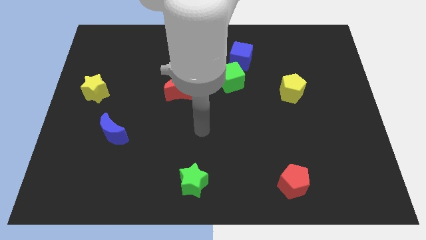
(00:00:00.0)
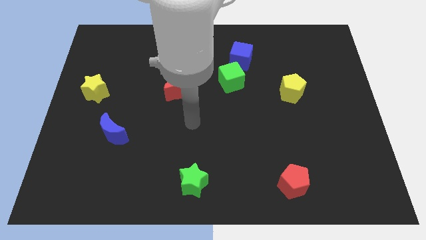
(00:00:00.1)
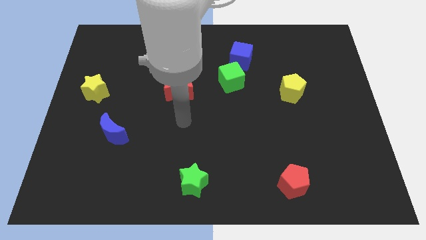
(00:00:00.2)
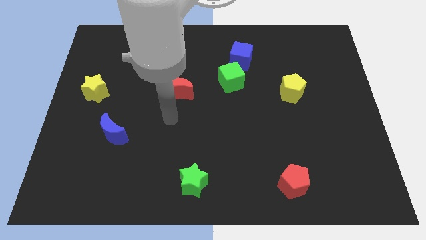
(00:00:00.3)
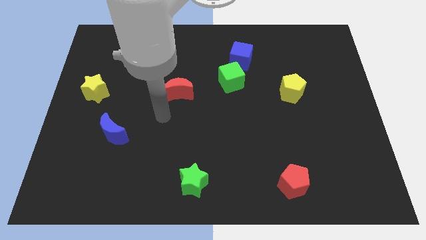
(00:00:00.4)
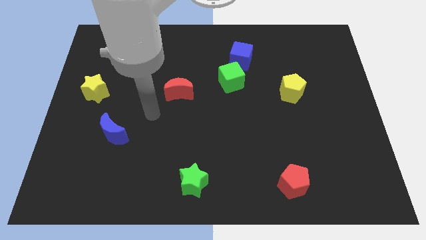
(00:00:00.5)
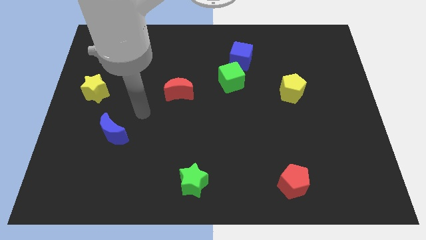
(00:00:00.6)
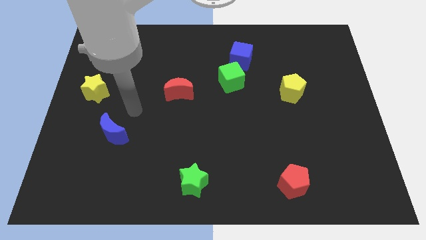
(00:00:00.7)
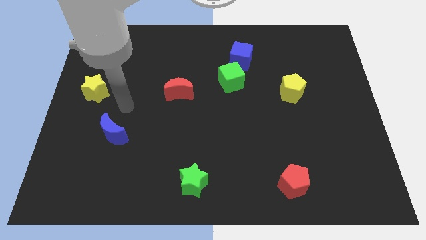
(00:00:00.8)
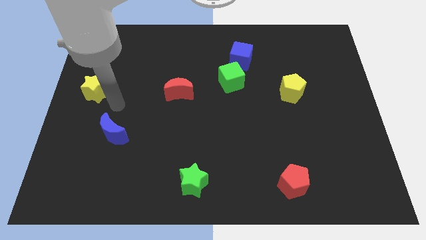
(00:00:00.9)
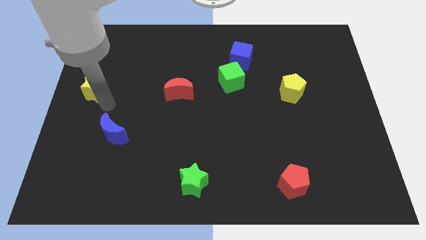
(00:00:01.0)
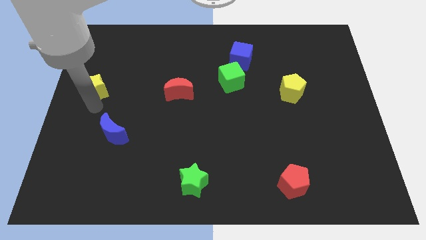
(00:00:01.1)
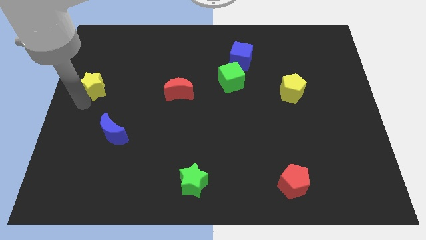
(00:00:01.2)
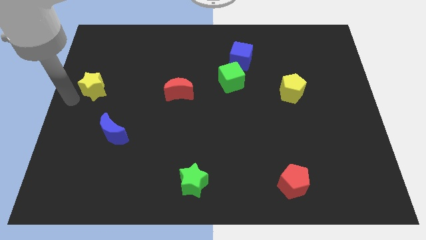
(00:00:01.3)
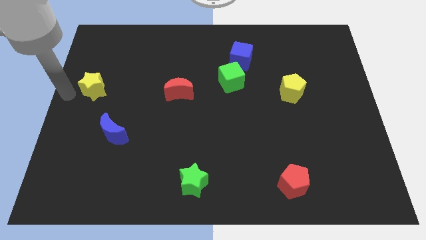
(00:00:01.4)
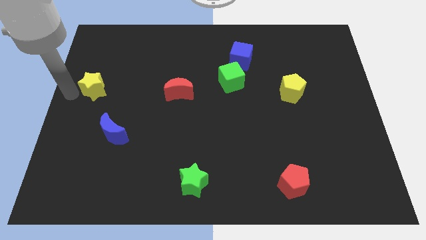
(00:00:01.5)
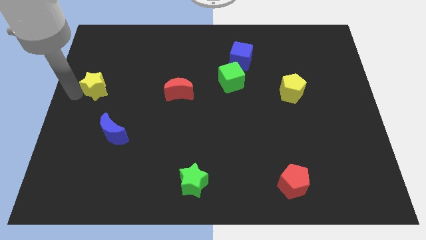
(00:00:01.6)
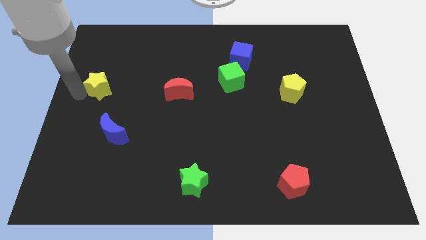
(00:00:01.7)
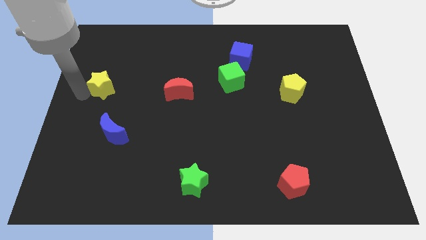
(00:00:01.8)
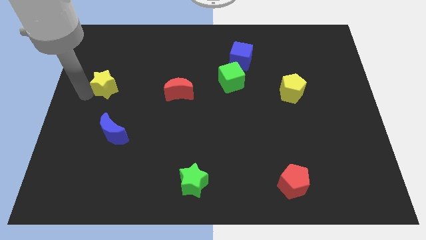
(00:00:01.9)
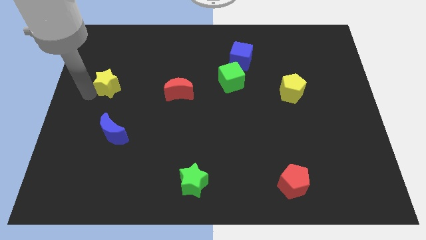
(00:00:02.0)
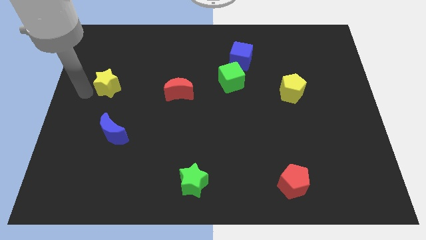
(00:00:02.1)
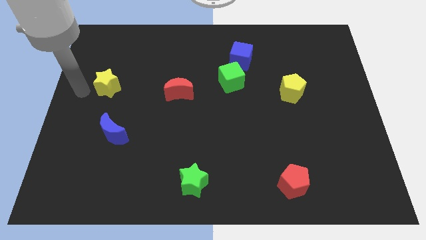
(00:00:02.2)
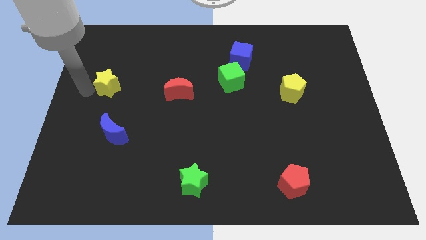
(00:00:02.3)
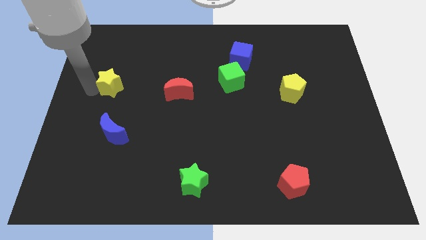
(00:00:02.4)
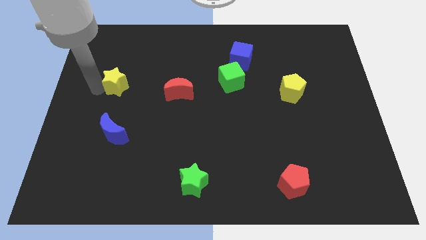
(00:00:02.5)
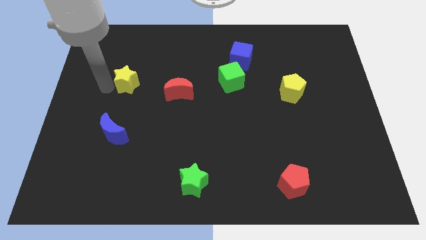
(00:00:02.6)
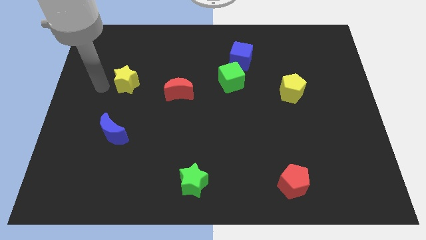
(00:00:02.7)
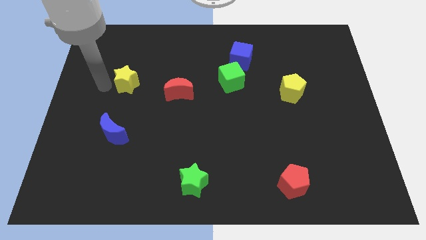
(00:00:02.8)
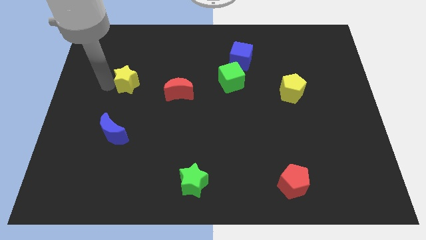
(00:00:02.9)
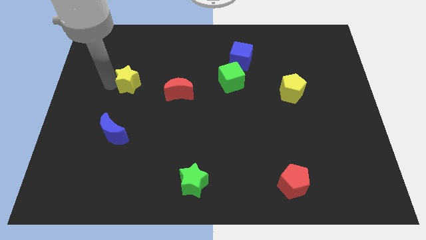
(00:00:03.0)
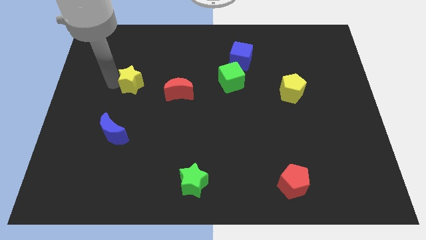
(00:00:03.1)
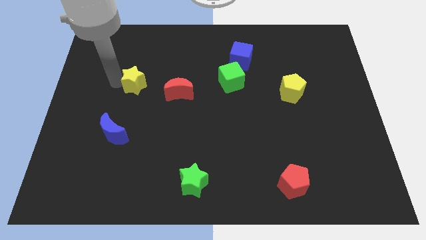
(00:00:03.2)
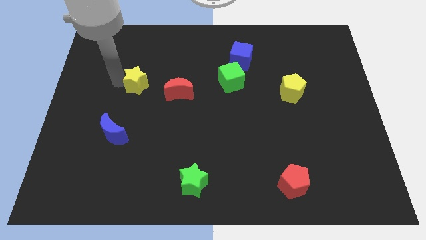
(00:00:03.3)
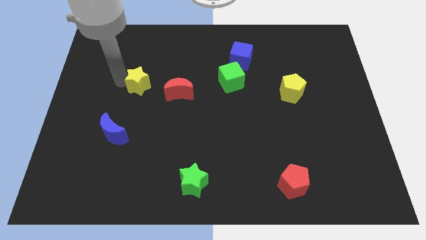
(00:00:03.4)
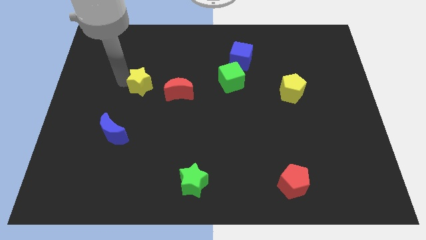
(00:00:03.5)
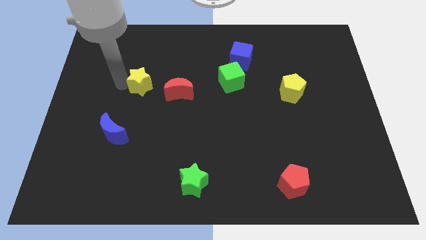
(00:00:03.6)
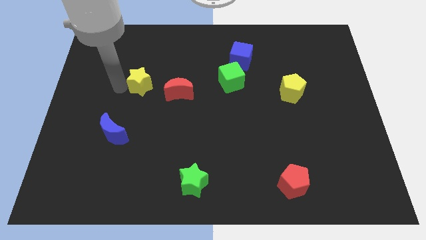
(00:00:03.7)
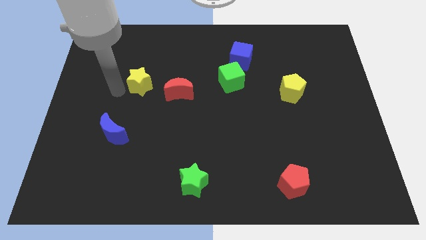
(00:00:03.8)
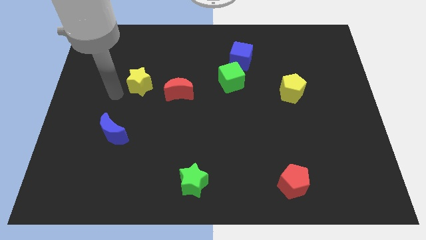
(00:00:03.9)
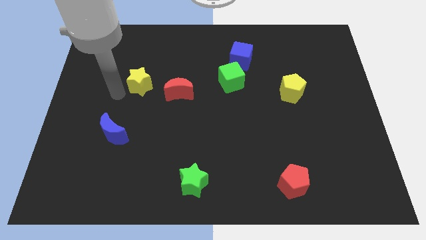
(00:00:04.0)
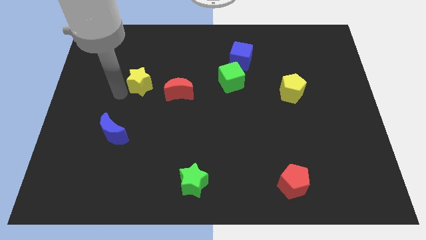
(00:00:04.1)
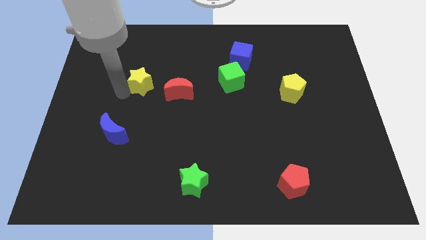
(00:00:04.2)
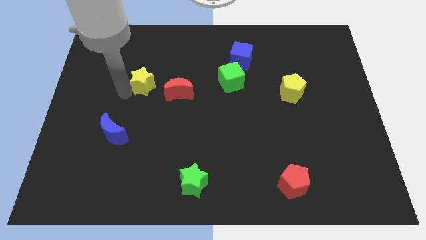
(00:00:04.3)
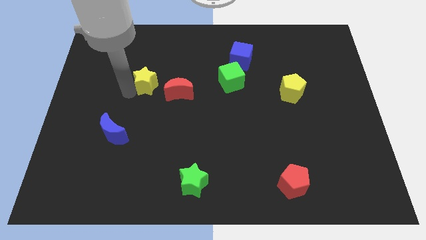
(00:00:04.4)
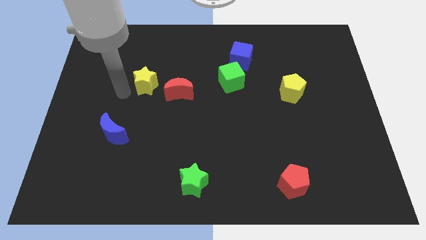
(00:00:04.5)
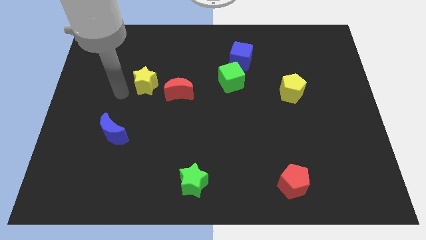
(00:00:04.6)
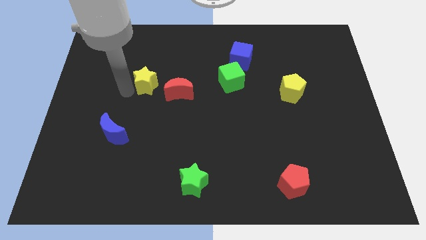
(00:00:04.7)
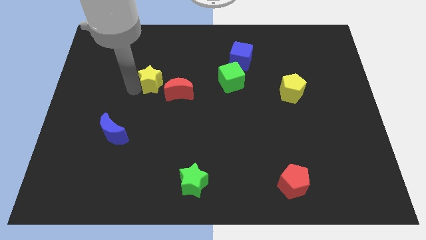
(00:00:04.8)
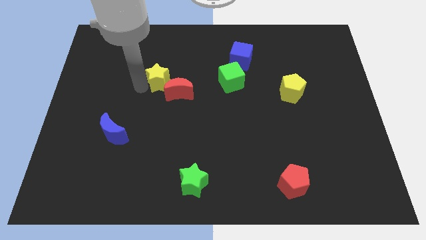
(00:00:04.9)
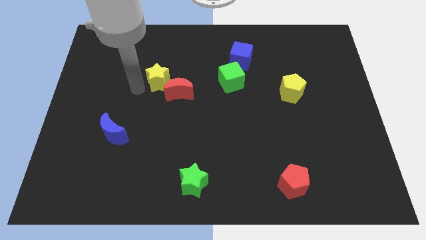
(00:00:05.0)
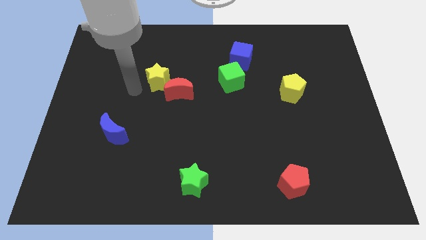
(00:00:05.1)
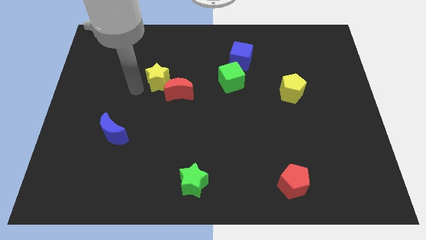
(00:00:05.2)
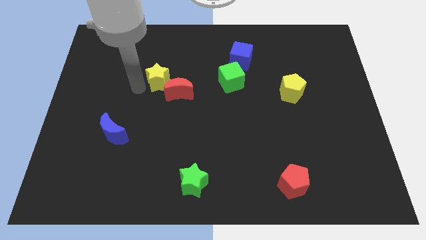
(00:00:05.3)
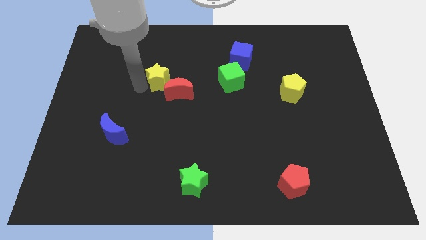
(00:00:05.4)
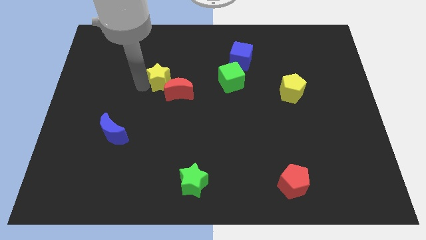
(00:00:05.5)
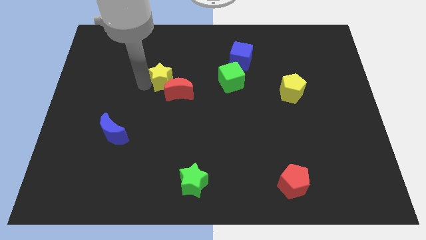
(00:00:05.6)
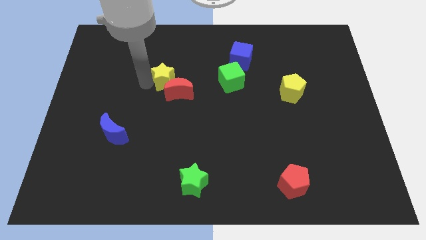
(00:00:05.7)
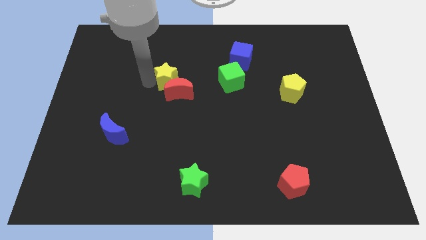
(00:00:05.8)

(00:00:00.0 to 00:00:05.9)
move the yellow star to the left of the green cube
